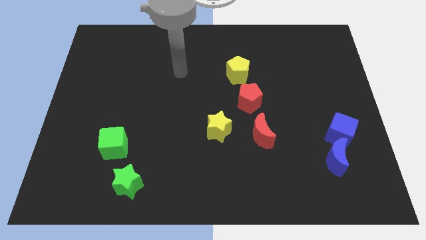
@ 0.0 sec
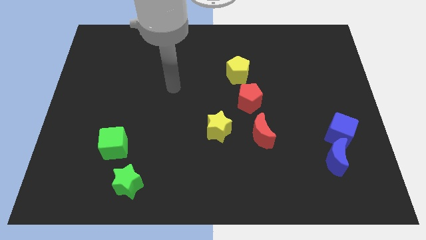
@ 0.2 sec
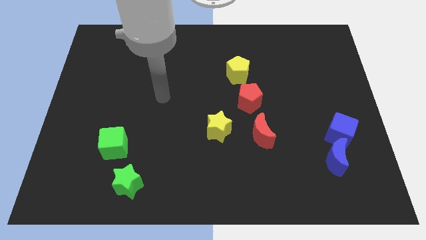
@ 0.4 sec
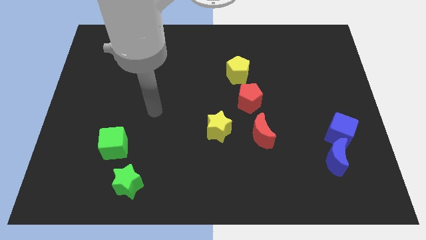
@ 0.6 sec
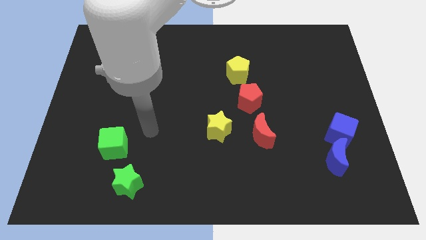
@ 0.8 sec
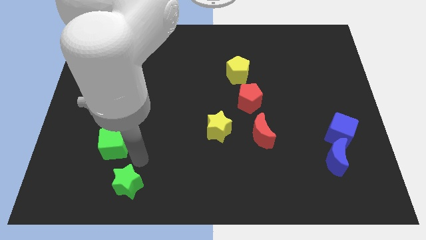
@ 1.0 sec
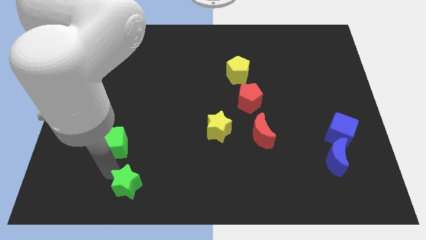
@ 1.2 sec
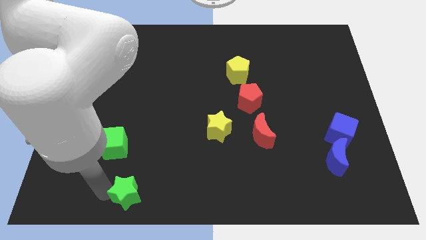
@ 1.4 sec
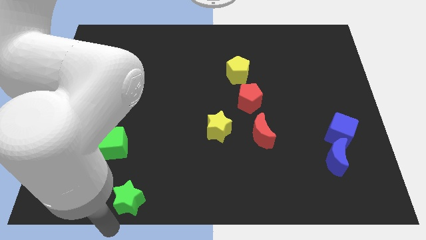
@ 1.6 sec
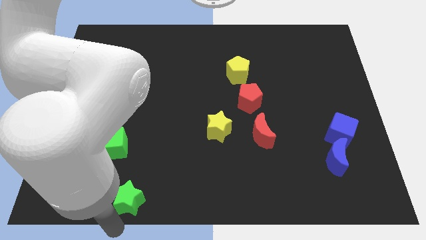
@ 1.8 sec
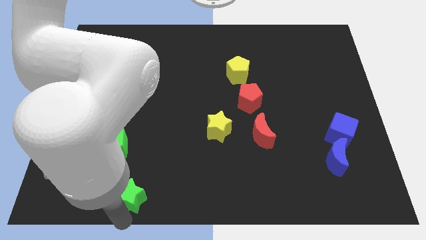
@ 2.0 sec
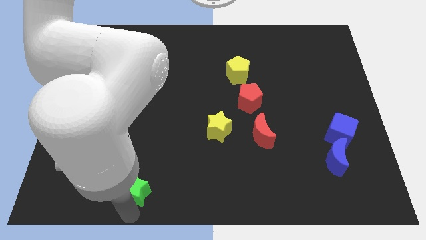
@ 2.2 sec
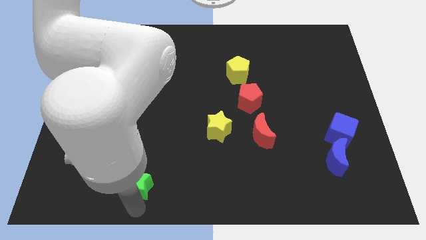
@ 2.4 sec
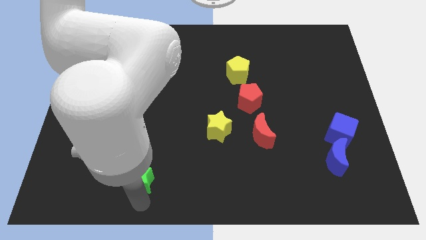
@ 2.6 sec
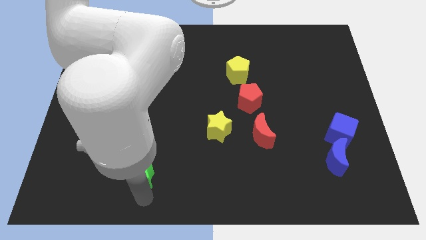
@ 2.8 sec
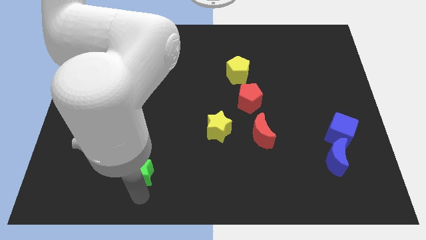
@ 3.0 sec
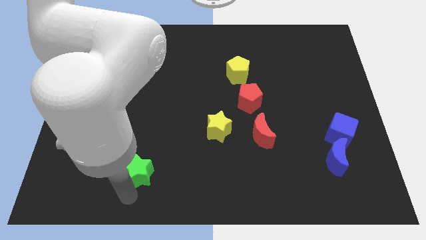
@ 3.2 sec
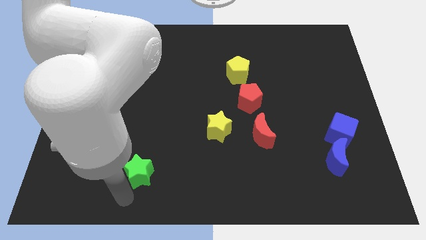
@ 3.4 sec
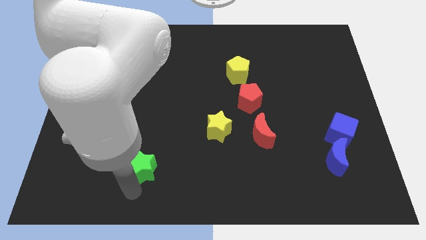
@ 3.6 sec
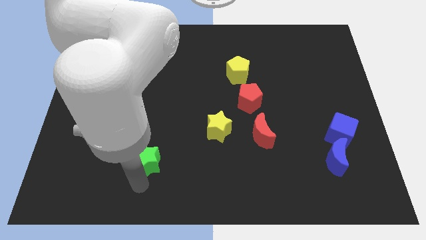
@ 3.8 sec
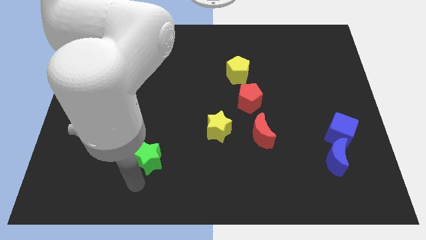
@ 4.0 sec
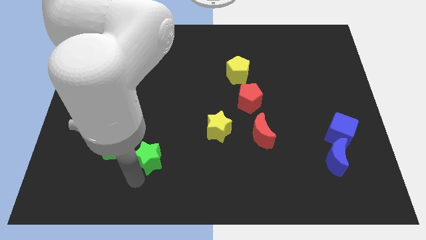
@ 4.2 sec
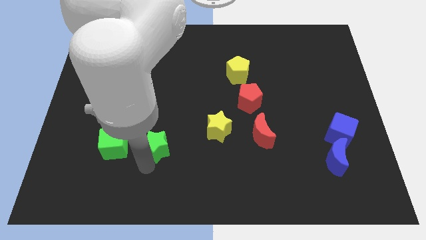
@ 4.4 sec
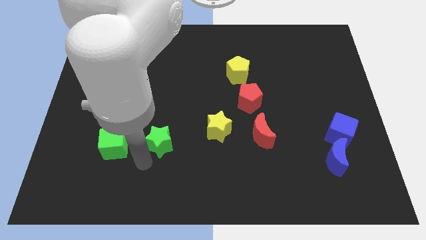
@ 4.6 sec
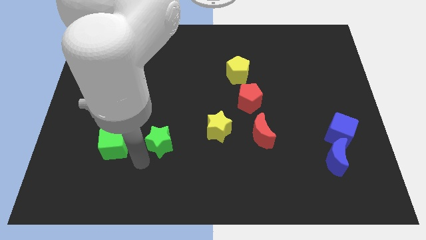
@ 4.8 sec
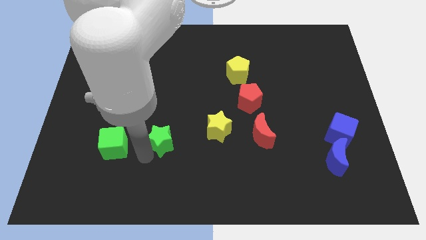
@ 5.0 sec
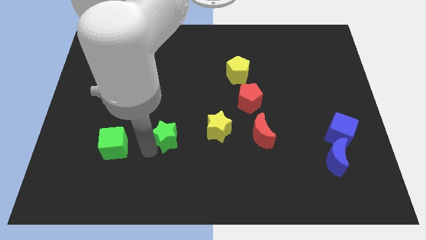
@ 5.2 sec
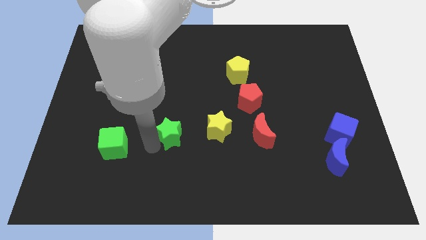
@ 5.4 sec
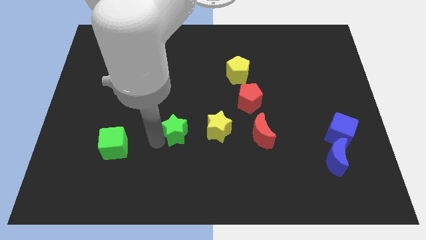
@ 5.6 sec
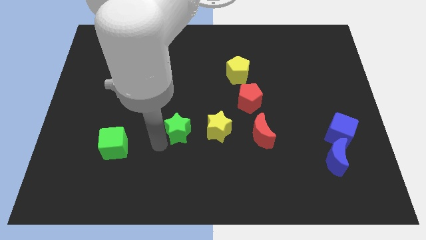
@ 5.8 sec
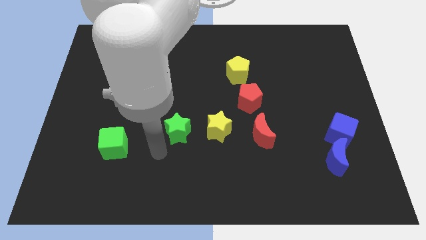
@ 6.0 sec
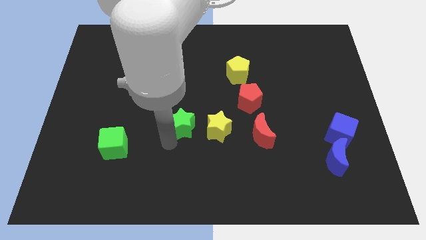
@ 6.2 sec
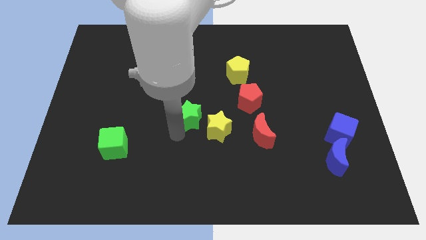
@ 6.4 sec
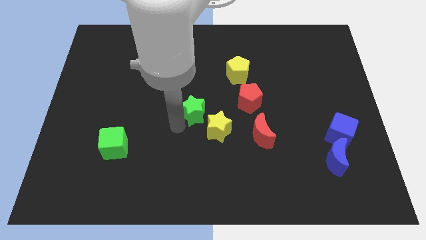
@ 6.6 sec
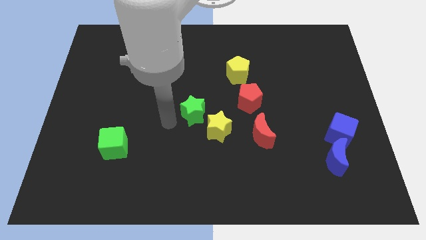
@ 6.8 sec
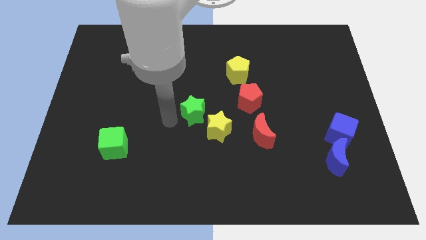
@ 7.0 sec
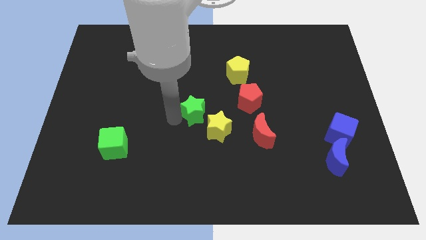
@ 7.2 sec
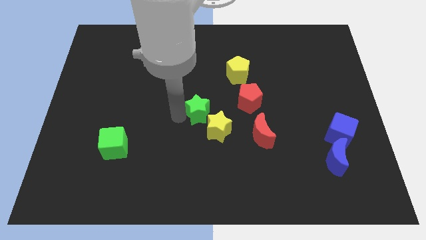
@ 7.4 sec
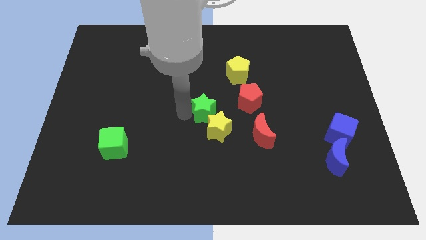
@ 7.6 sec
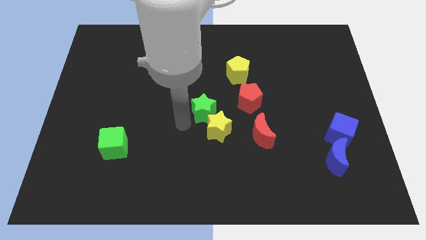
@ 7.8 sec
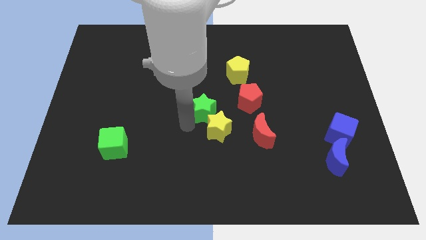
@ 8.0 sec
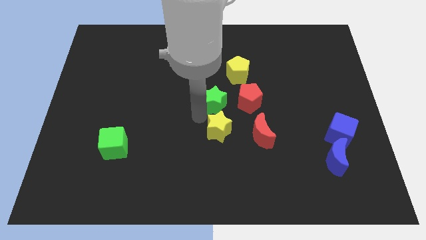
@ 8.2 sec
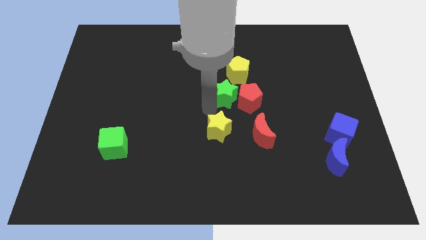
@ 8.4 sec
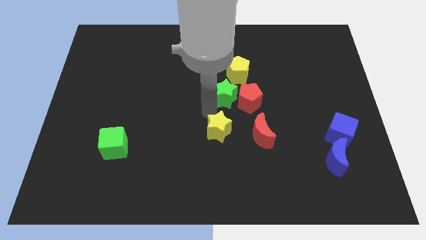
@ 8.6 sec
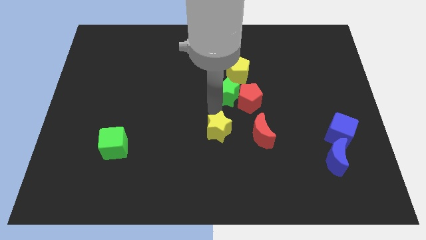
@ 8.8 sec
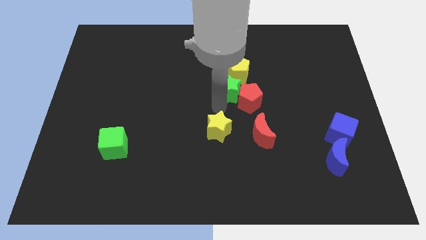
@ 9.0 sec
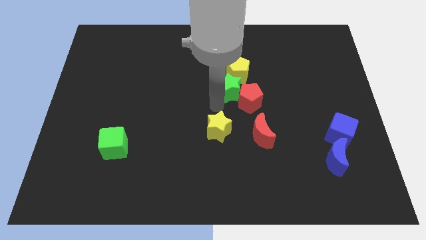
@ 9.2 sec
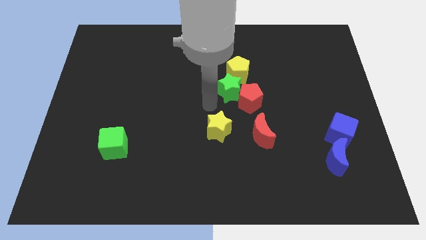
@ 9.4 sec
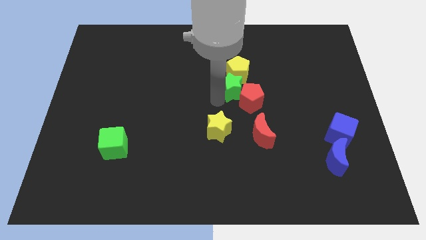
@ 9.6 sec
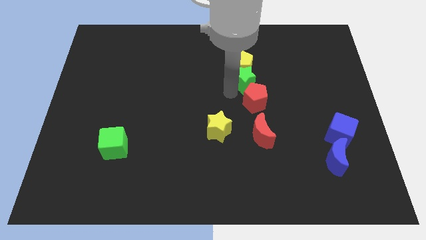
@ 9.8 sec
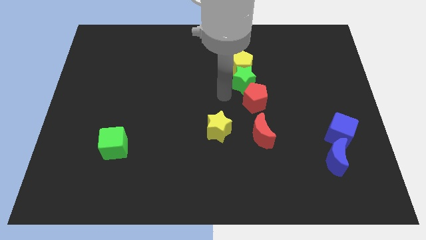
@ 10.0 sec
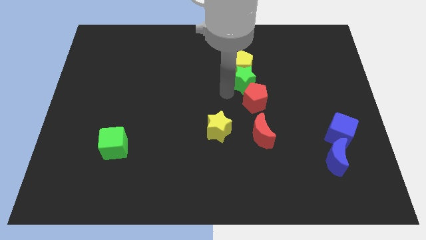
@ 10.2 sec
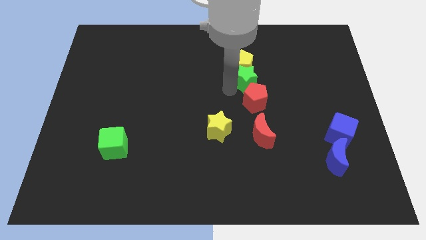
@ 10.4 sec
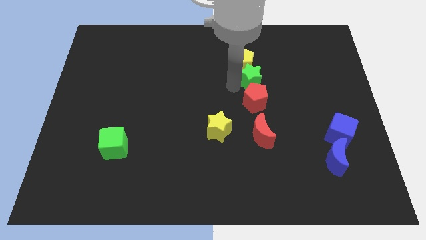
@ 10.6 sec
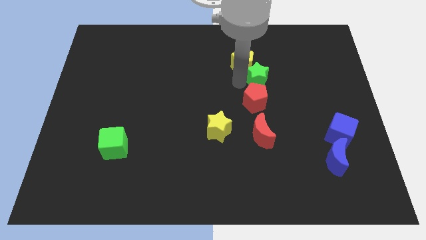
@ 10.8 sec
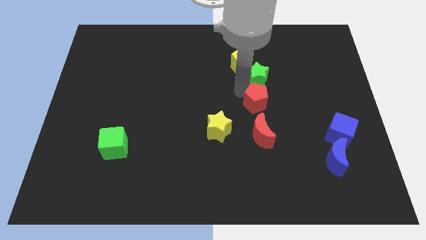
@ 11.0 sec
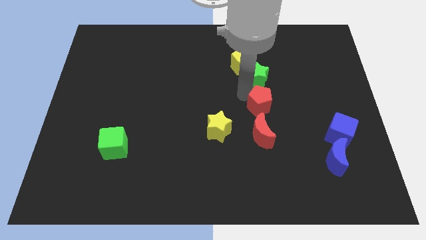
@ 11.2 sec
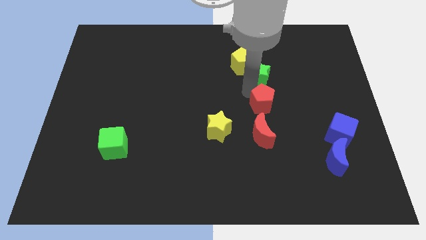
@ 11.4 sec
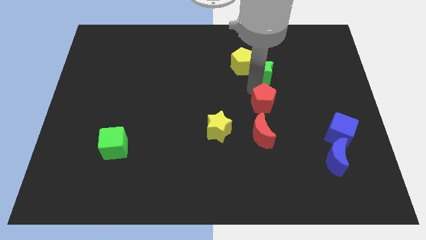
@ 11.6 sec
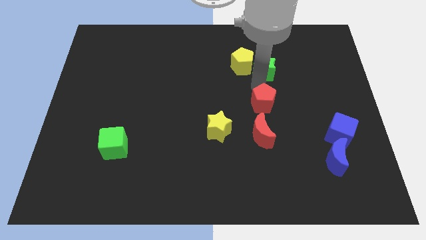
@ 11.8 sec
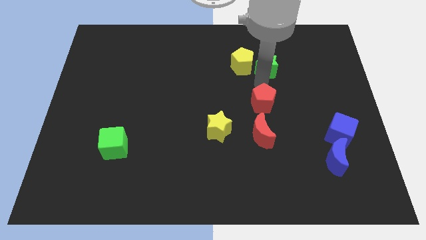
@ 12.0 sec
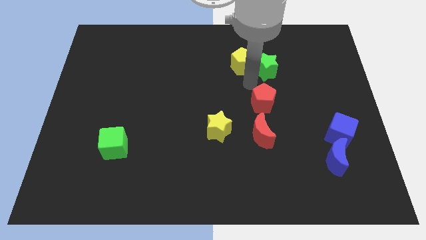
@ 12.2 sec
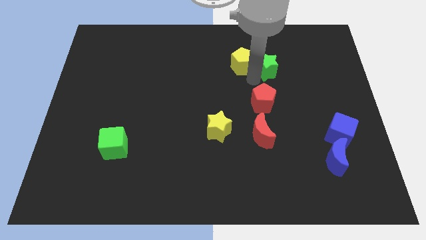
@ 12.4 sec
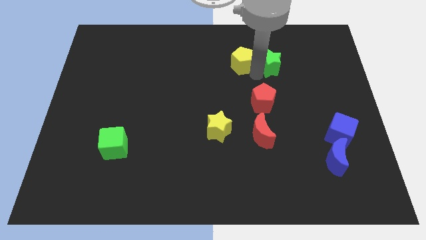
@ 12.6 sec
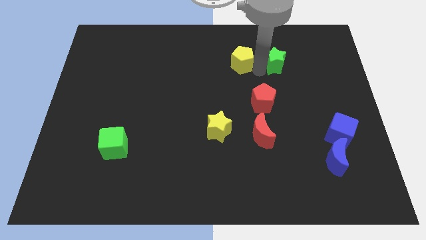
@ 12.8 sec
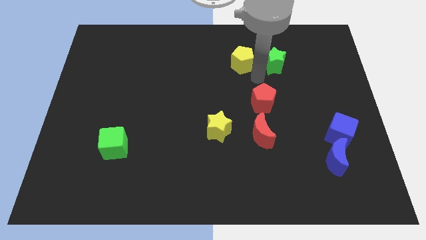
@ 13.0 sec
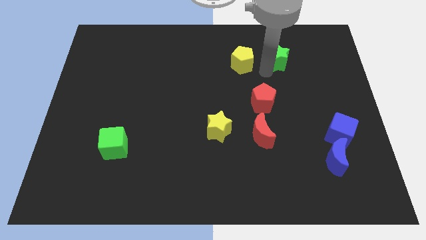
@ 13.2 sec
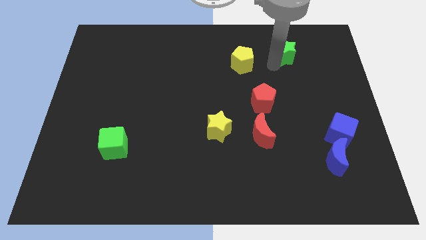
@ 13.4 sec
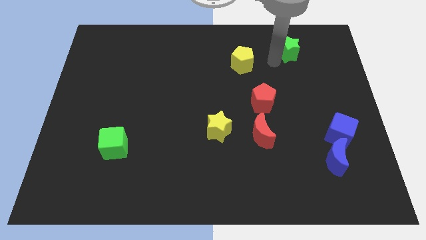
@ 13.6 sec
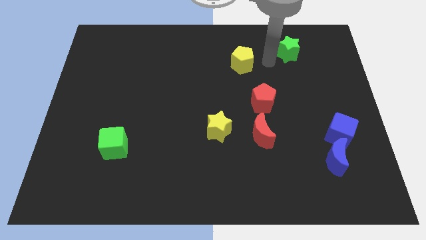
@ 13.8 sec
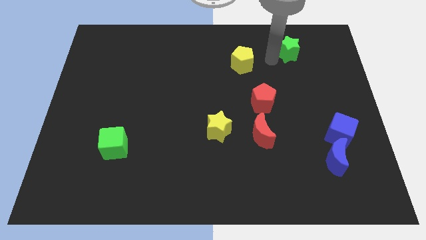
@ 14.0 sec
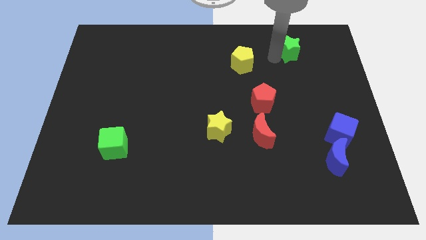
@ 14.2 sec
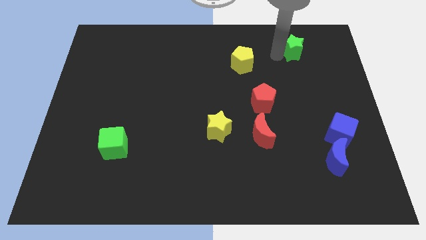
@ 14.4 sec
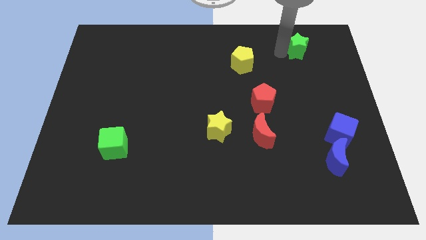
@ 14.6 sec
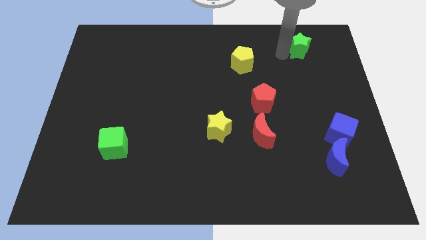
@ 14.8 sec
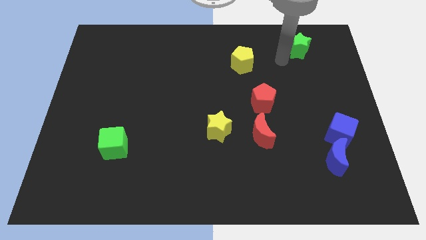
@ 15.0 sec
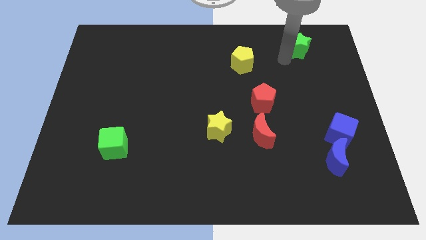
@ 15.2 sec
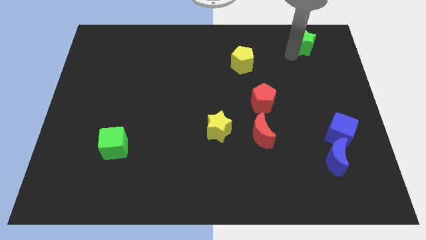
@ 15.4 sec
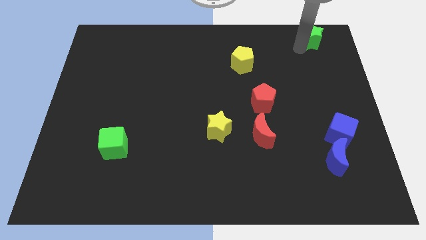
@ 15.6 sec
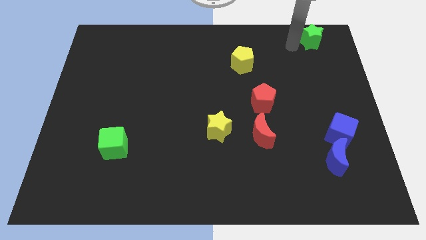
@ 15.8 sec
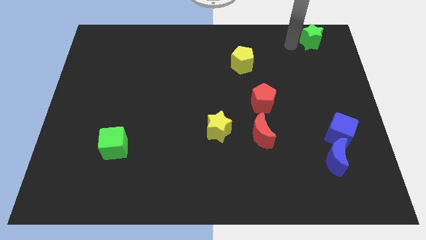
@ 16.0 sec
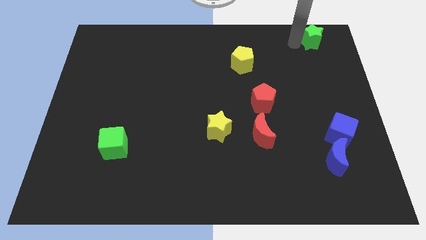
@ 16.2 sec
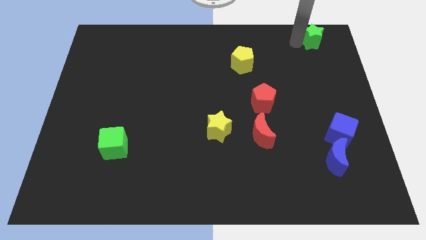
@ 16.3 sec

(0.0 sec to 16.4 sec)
slide the green star to the top right
